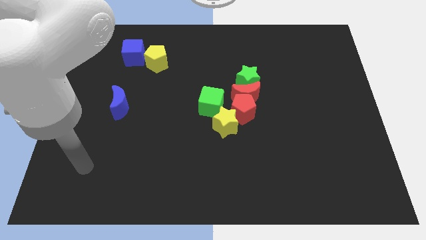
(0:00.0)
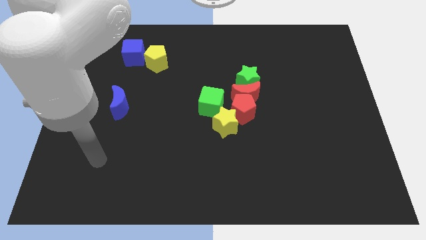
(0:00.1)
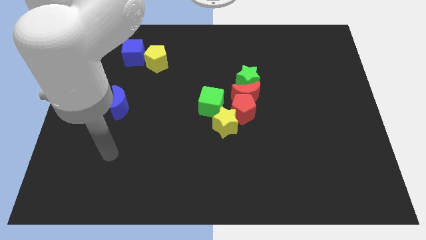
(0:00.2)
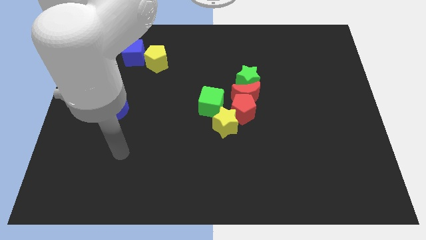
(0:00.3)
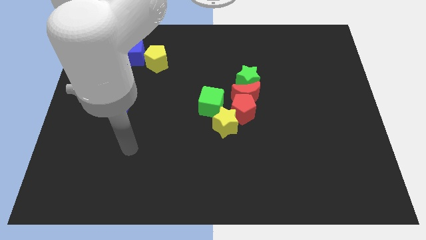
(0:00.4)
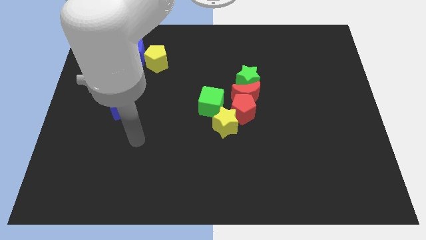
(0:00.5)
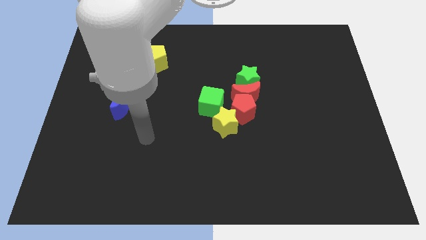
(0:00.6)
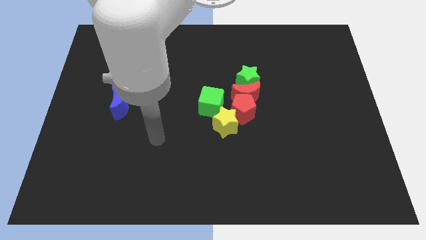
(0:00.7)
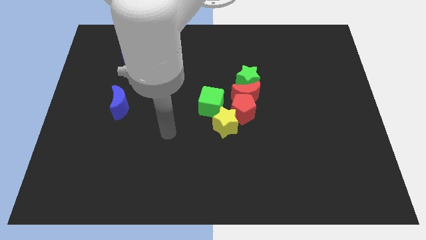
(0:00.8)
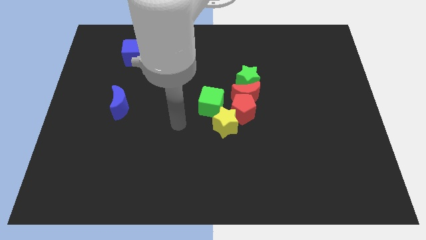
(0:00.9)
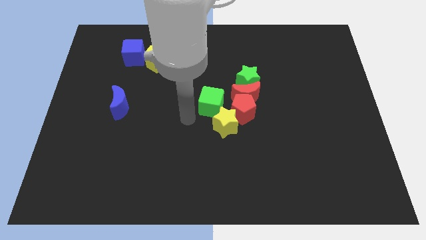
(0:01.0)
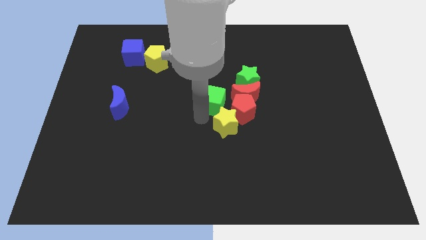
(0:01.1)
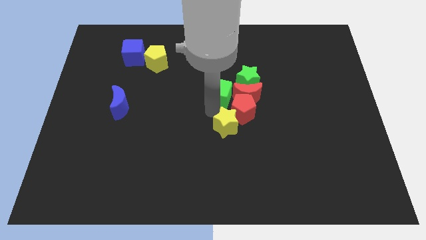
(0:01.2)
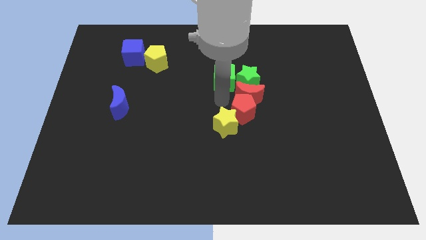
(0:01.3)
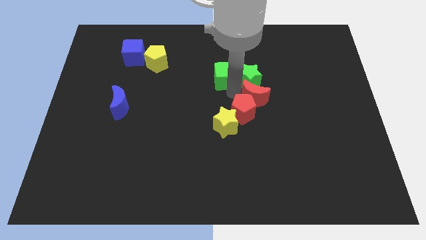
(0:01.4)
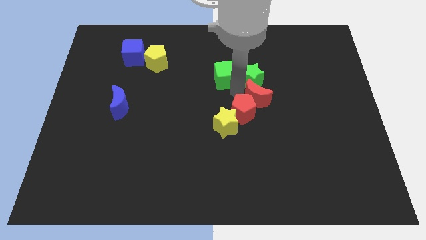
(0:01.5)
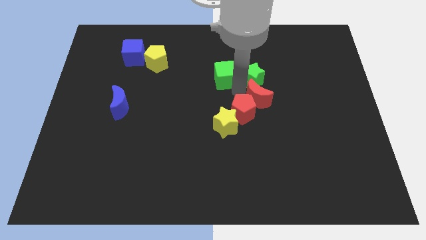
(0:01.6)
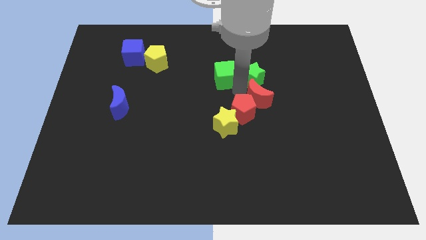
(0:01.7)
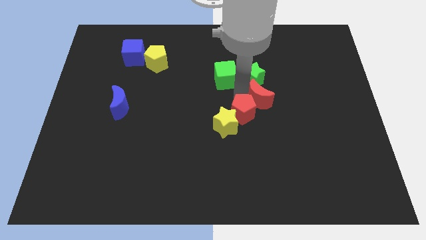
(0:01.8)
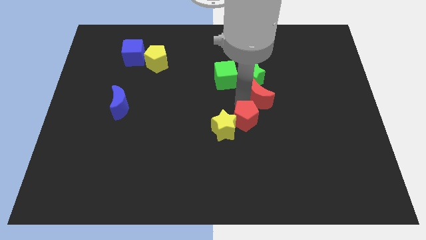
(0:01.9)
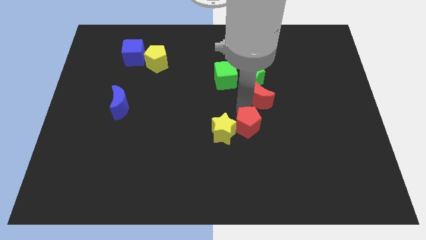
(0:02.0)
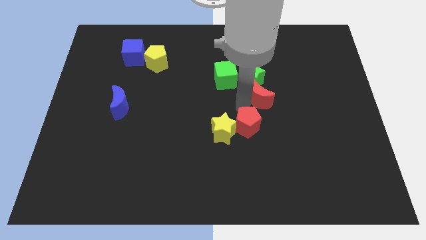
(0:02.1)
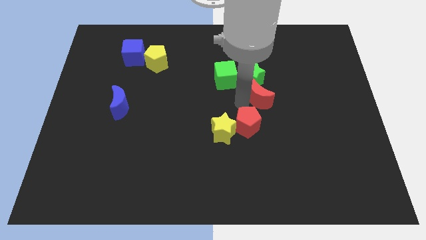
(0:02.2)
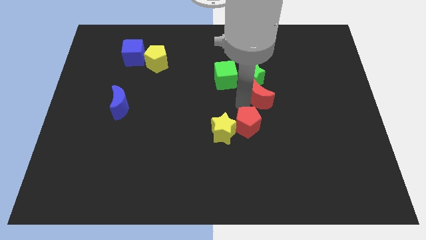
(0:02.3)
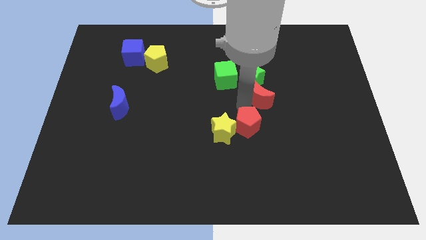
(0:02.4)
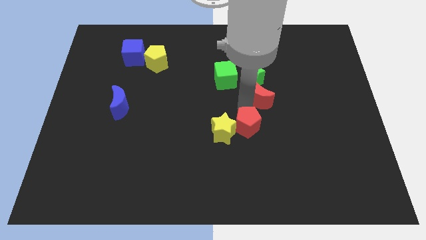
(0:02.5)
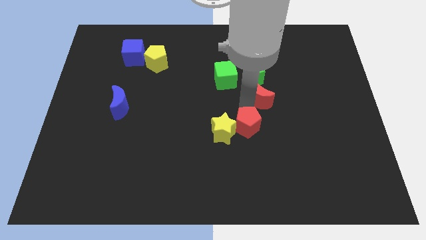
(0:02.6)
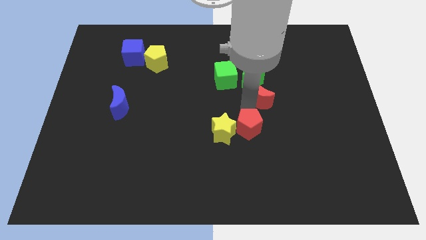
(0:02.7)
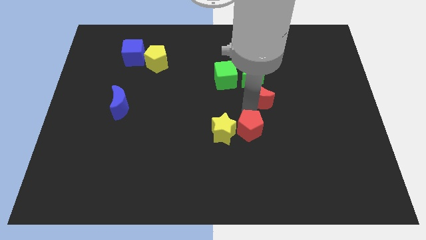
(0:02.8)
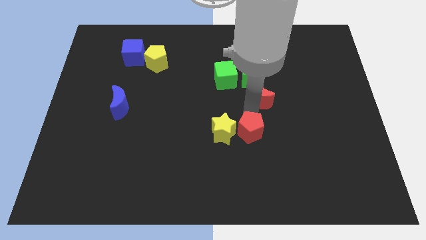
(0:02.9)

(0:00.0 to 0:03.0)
separate the red pentagon from the group

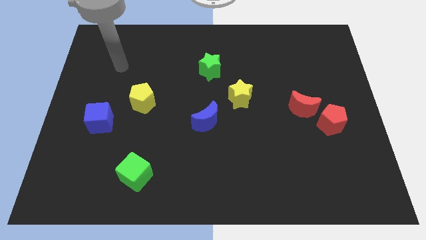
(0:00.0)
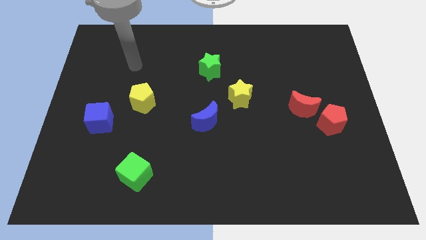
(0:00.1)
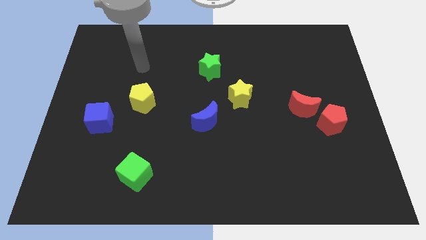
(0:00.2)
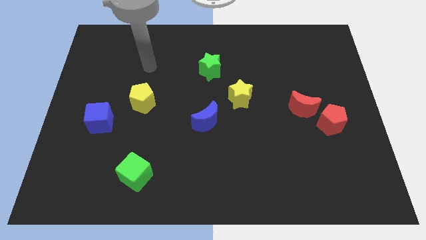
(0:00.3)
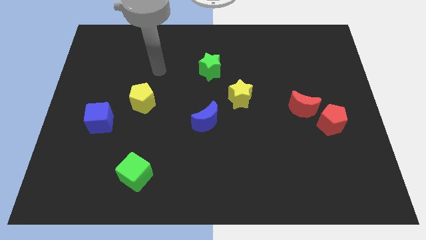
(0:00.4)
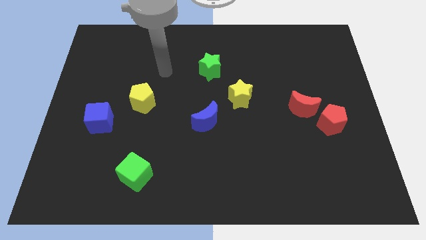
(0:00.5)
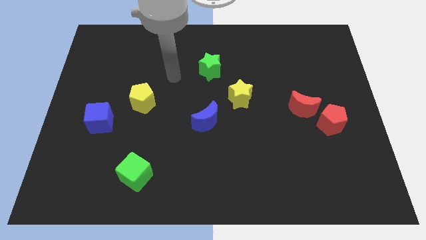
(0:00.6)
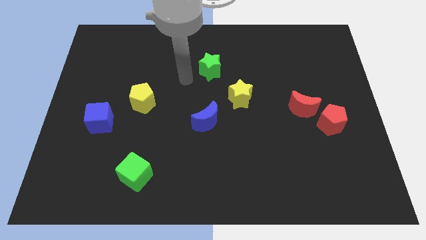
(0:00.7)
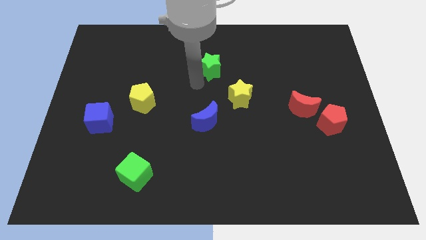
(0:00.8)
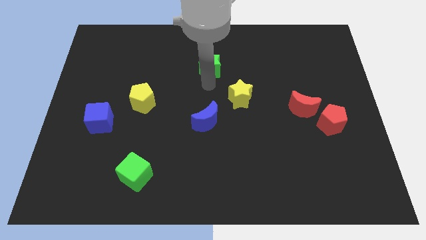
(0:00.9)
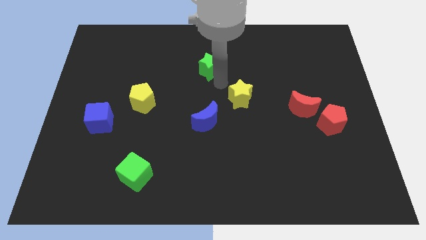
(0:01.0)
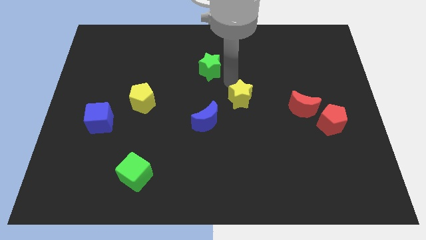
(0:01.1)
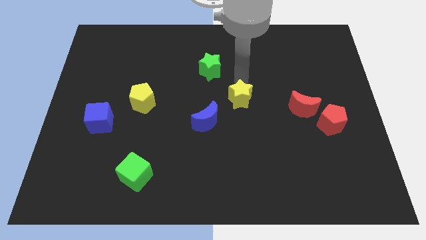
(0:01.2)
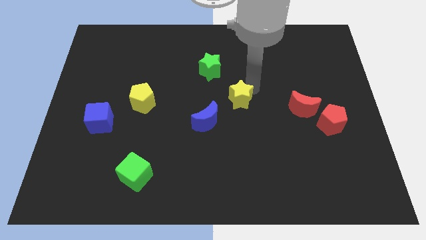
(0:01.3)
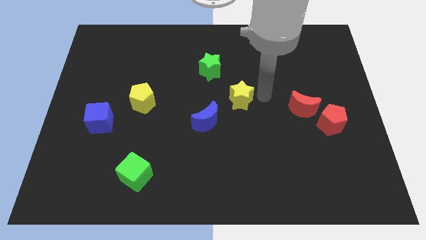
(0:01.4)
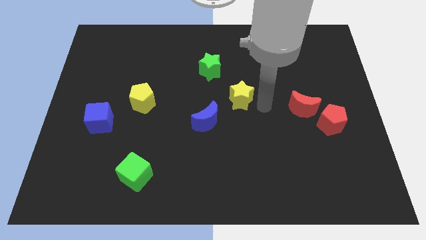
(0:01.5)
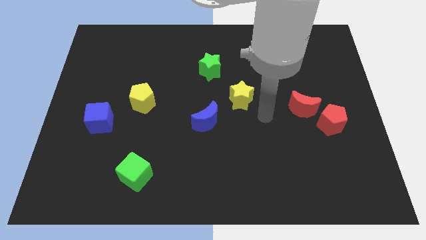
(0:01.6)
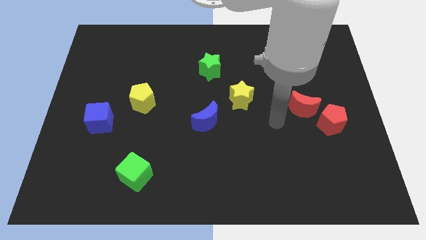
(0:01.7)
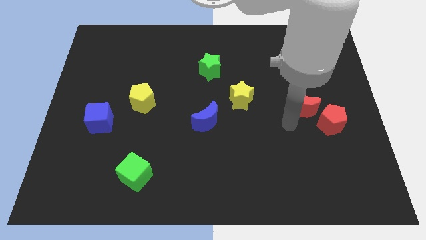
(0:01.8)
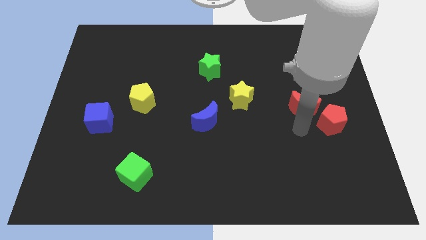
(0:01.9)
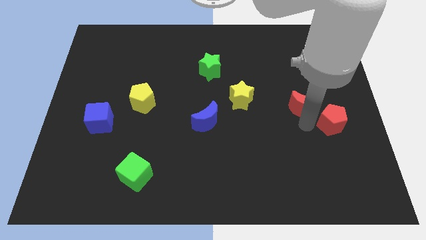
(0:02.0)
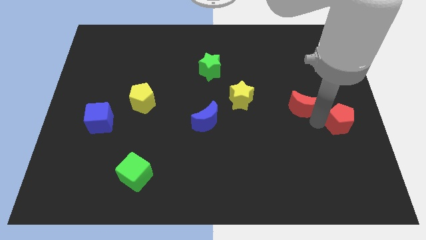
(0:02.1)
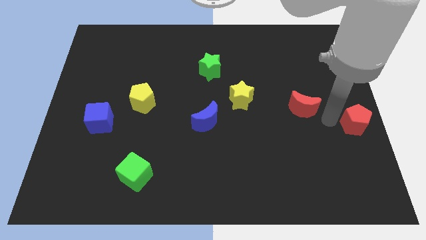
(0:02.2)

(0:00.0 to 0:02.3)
separate the red moon from the red pentagon

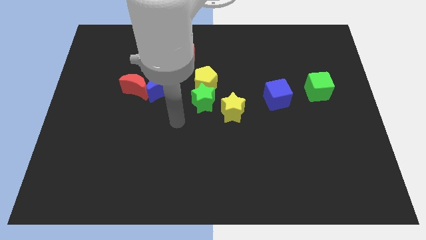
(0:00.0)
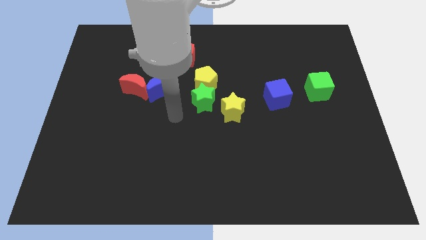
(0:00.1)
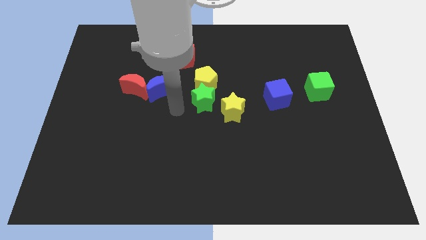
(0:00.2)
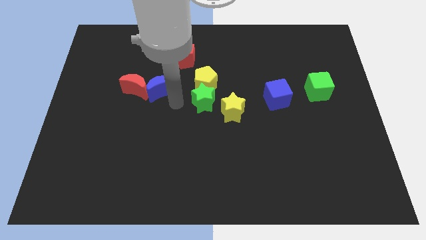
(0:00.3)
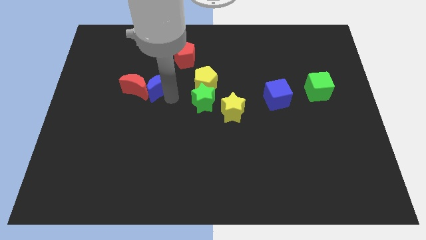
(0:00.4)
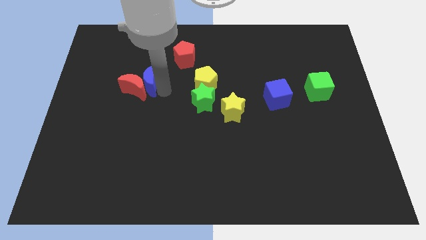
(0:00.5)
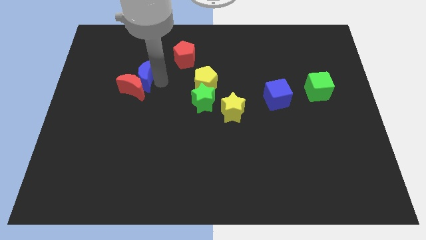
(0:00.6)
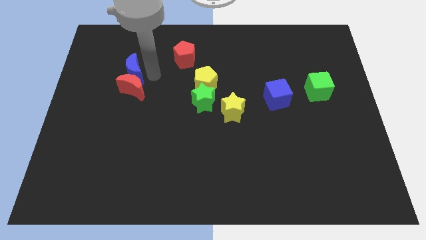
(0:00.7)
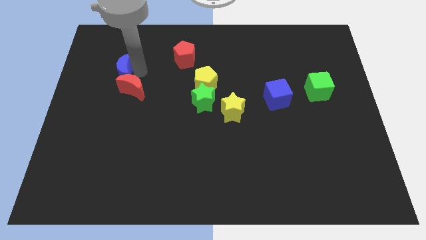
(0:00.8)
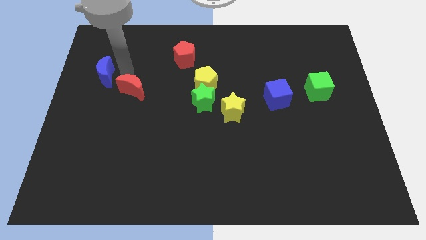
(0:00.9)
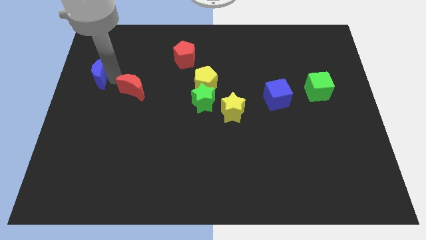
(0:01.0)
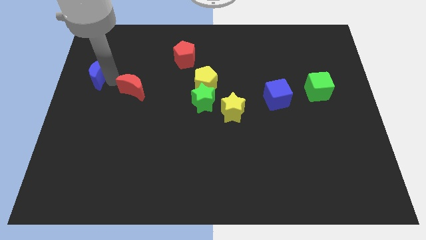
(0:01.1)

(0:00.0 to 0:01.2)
move the red moon away from the blue moon

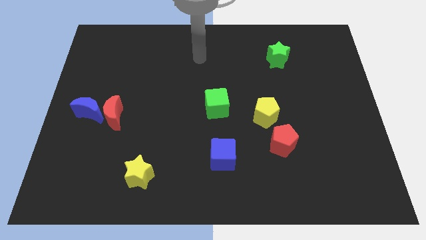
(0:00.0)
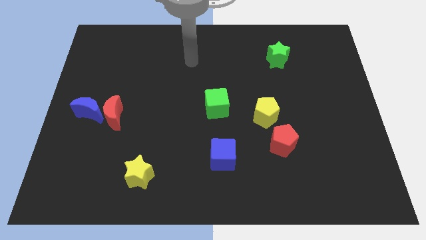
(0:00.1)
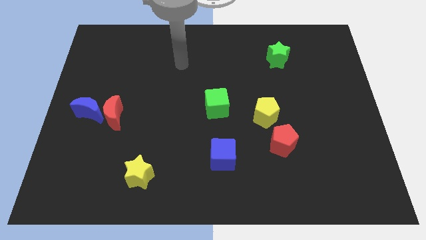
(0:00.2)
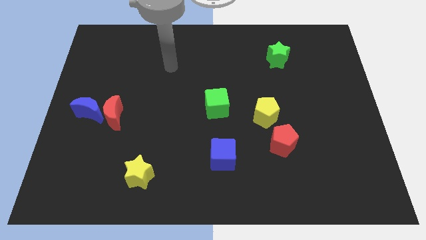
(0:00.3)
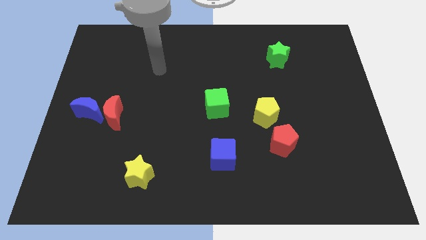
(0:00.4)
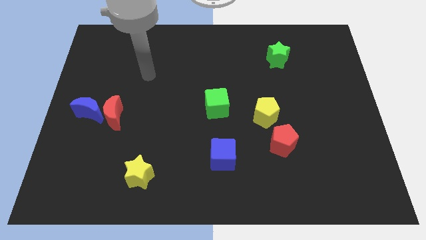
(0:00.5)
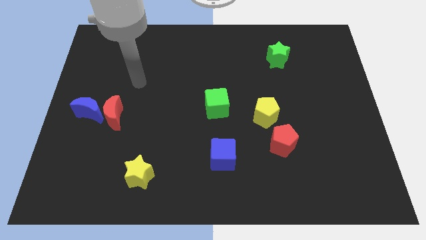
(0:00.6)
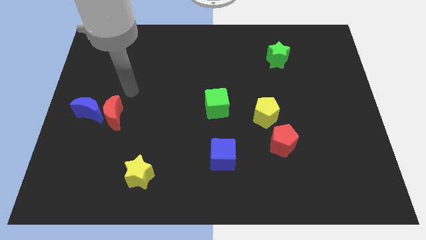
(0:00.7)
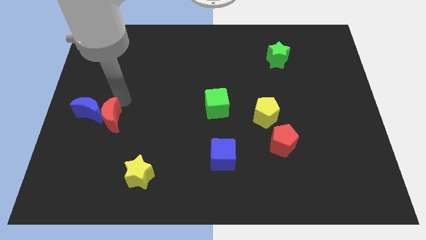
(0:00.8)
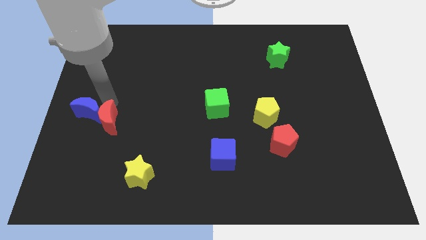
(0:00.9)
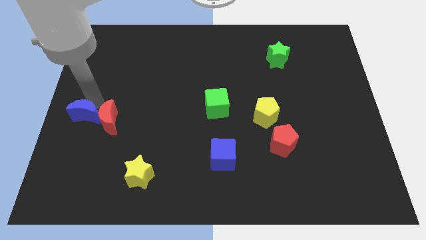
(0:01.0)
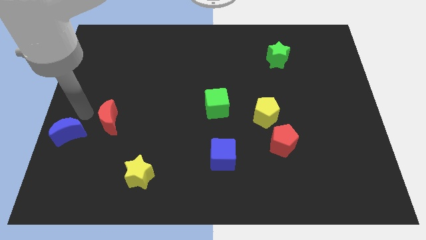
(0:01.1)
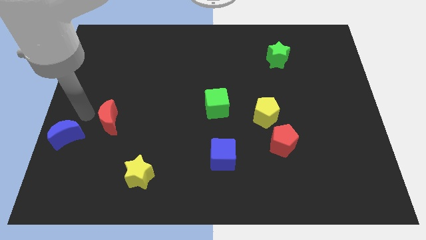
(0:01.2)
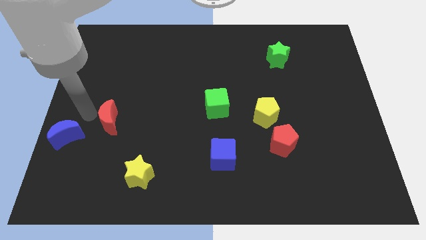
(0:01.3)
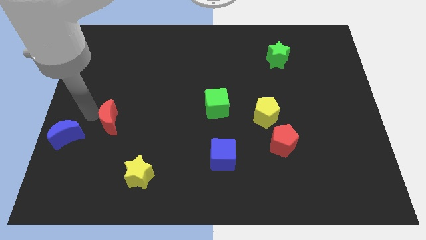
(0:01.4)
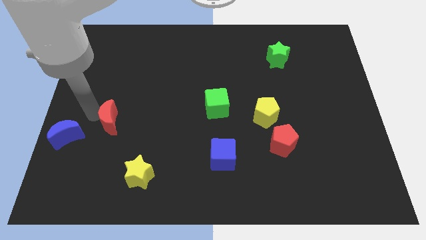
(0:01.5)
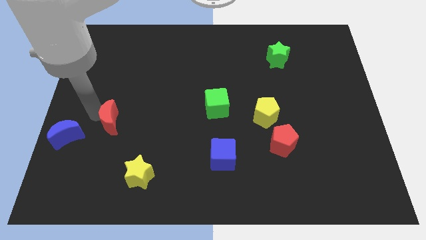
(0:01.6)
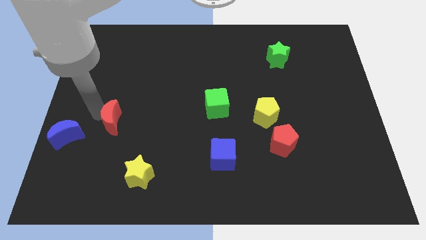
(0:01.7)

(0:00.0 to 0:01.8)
separate the red moon from the blue moon

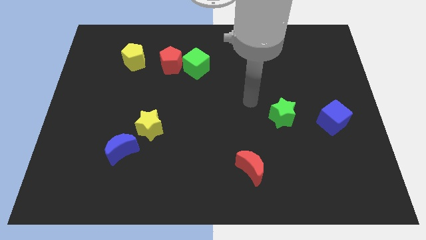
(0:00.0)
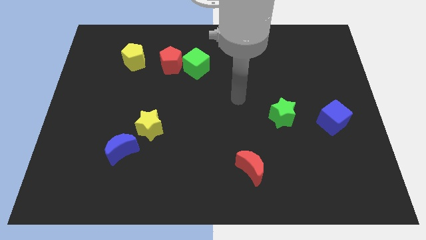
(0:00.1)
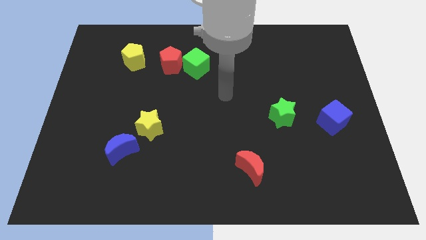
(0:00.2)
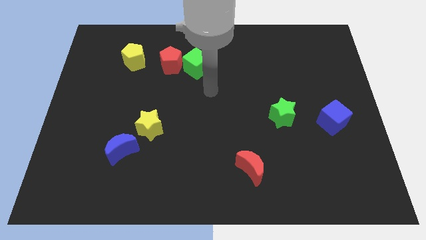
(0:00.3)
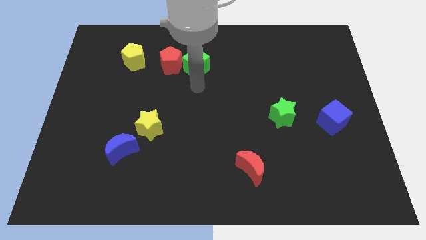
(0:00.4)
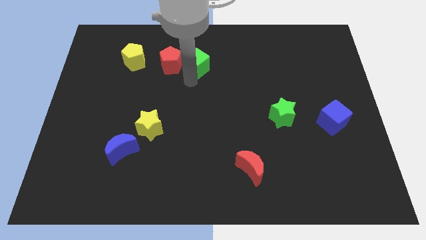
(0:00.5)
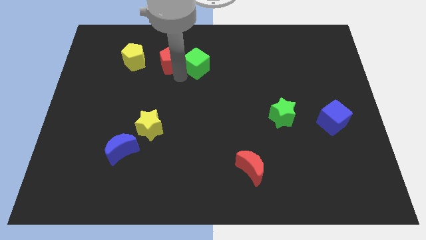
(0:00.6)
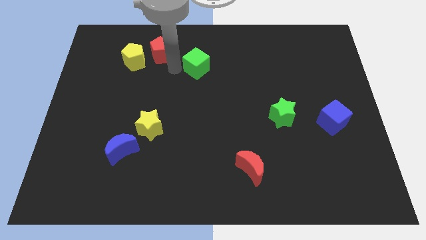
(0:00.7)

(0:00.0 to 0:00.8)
move the green cube away from the red pentagon

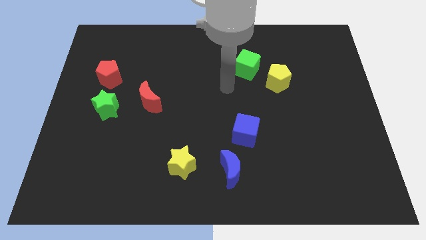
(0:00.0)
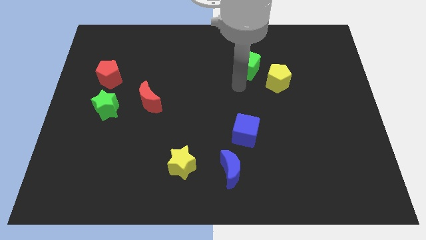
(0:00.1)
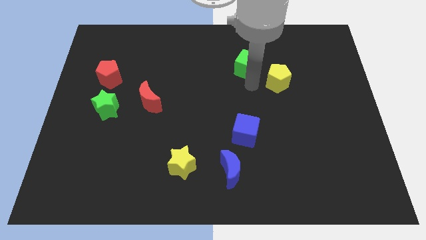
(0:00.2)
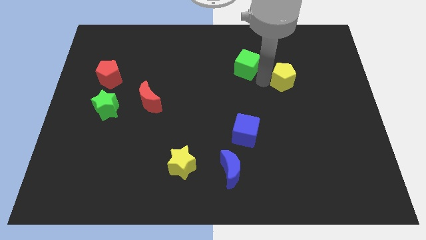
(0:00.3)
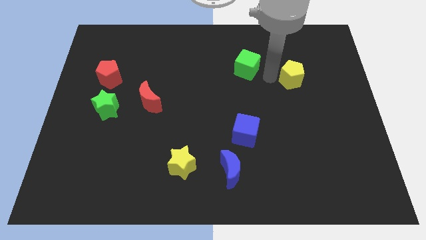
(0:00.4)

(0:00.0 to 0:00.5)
pull the green cube apart from the yellow pentagon
